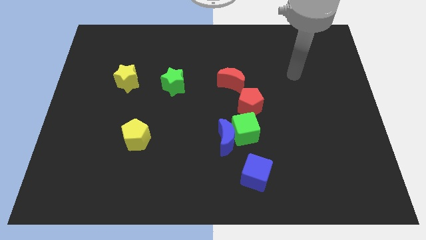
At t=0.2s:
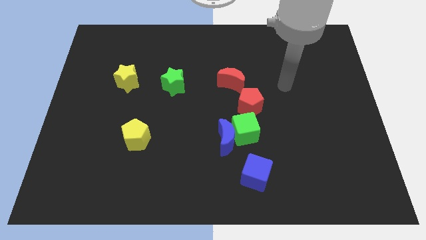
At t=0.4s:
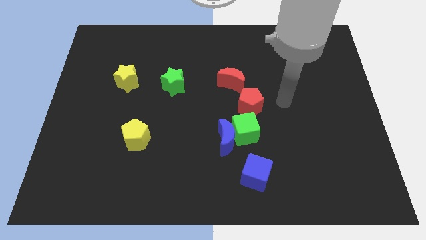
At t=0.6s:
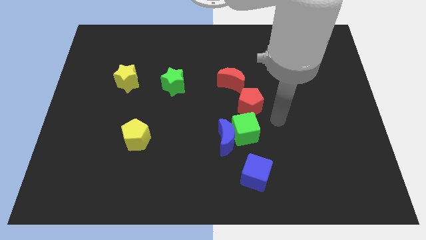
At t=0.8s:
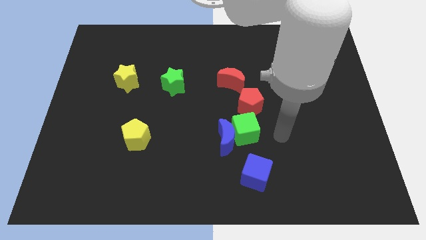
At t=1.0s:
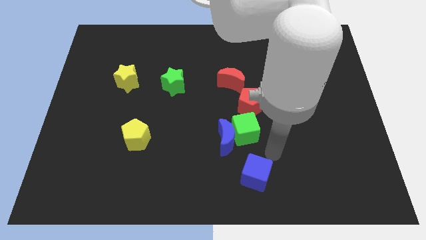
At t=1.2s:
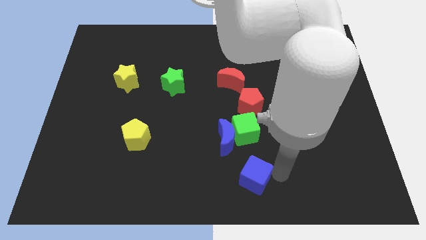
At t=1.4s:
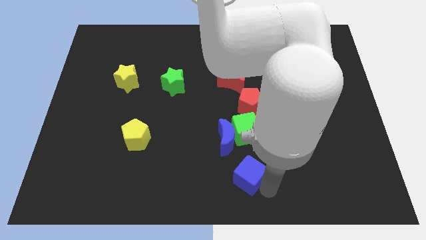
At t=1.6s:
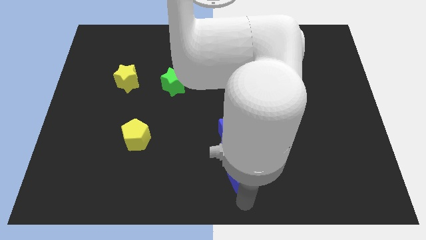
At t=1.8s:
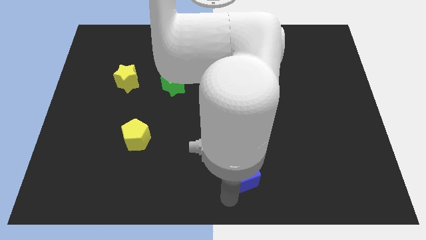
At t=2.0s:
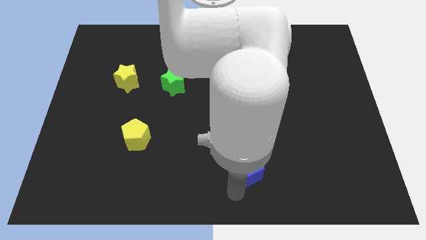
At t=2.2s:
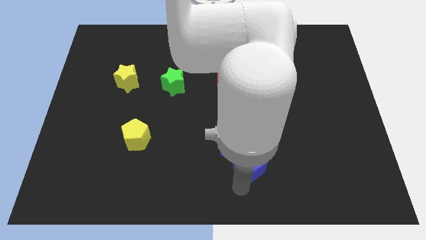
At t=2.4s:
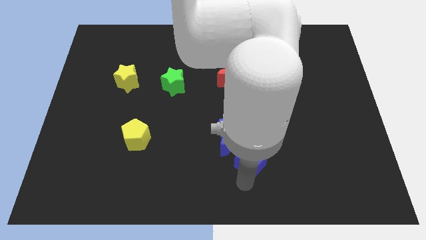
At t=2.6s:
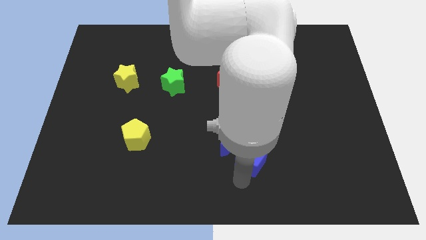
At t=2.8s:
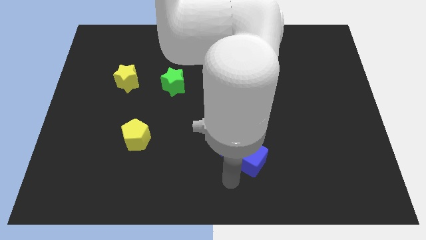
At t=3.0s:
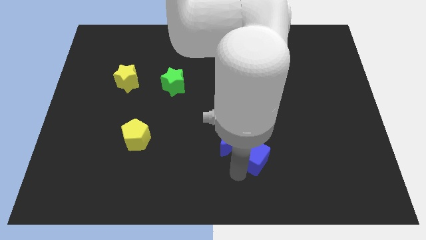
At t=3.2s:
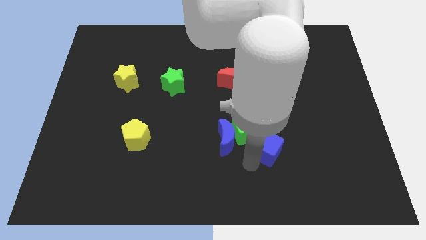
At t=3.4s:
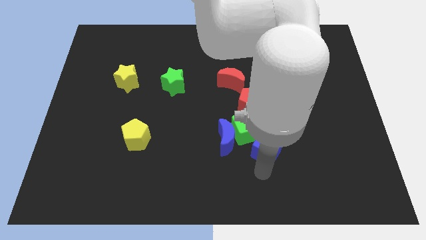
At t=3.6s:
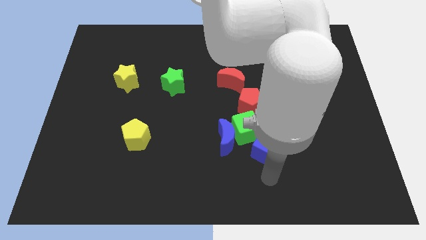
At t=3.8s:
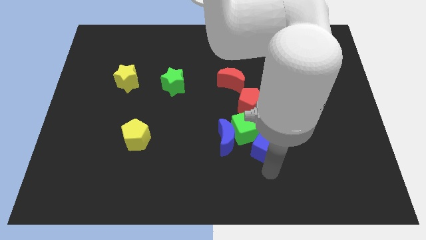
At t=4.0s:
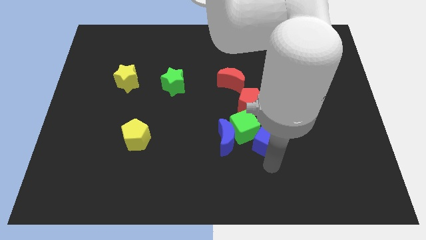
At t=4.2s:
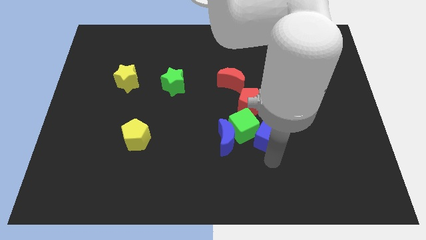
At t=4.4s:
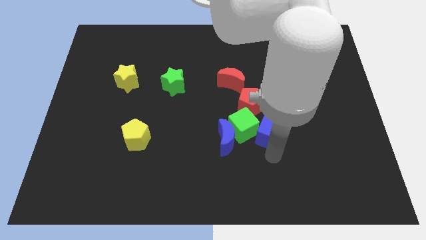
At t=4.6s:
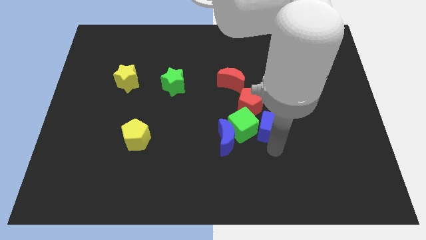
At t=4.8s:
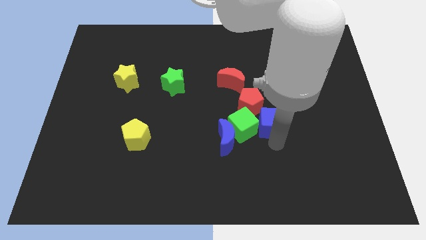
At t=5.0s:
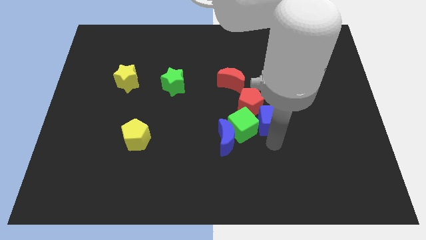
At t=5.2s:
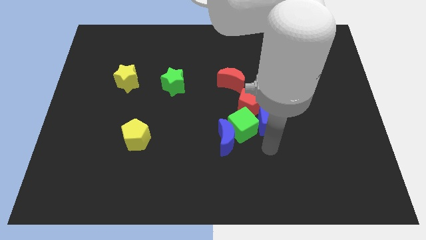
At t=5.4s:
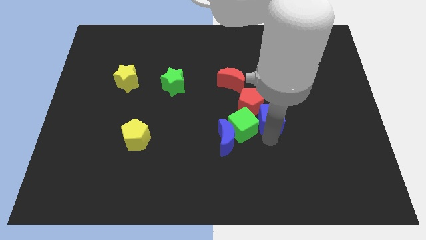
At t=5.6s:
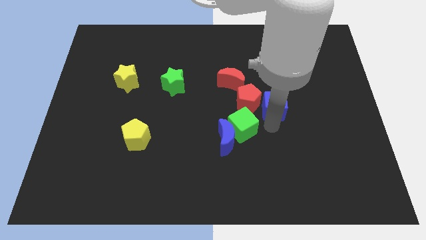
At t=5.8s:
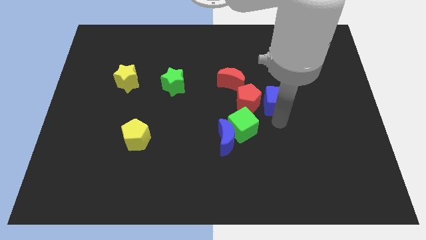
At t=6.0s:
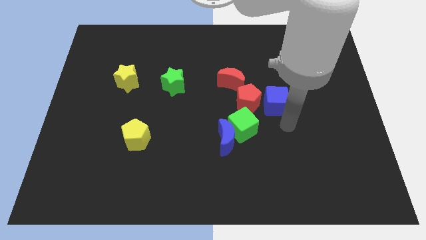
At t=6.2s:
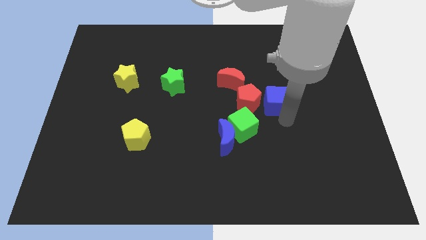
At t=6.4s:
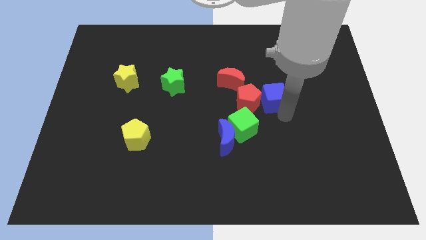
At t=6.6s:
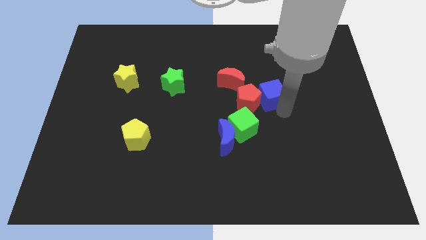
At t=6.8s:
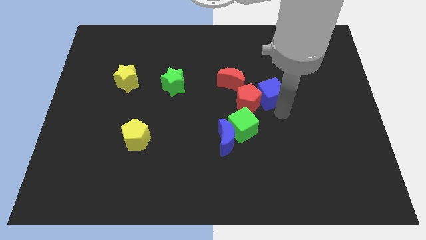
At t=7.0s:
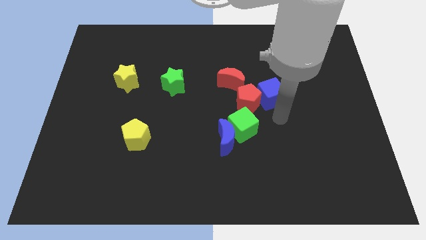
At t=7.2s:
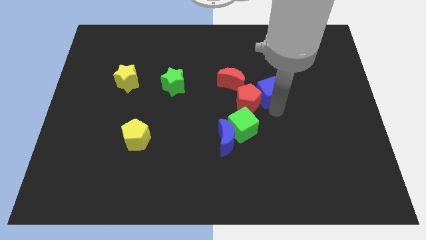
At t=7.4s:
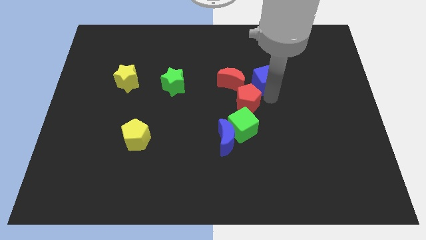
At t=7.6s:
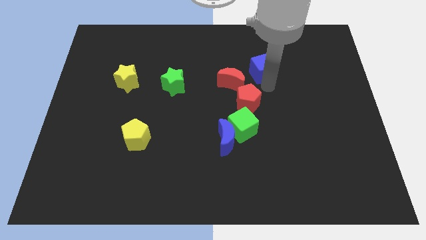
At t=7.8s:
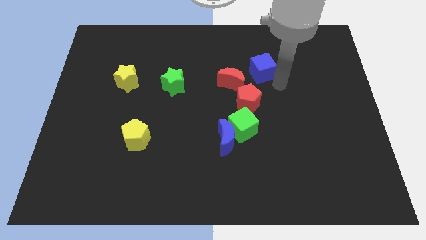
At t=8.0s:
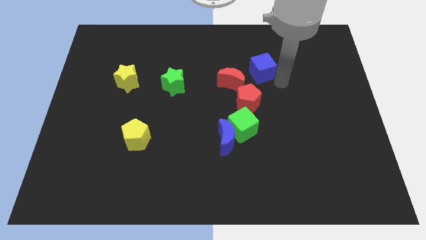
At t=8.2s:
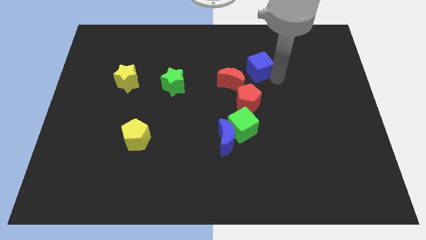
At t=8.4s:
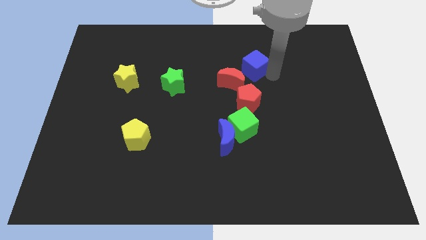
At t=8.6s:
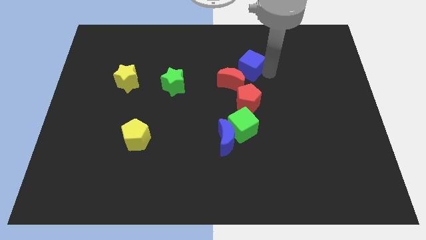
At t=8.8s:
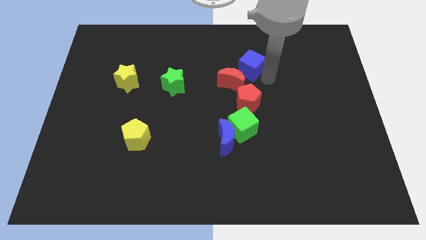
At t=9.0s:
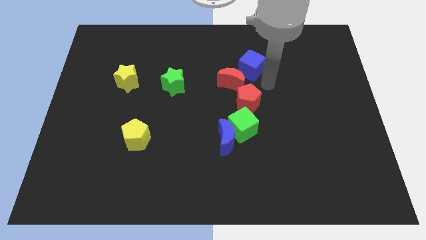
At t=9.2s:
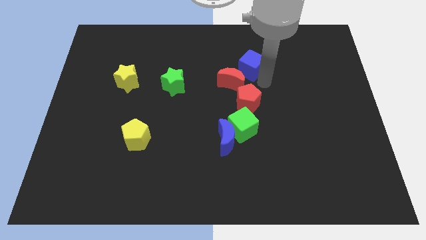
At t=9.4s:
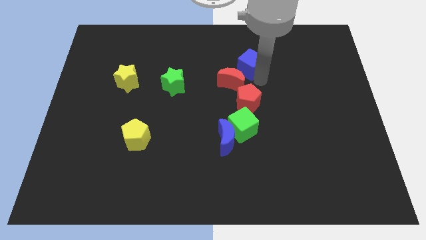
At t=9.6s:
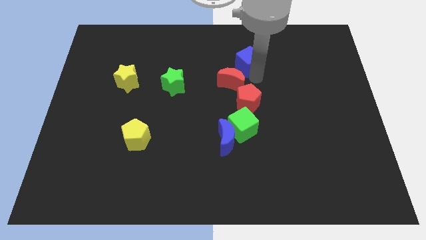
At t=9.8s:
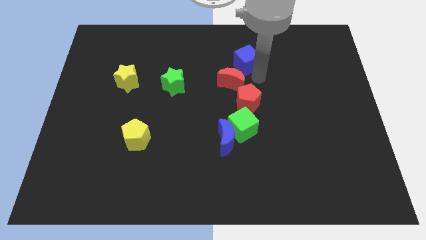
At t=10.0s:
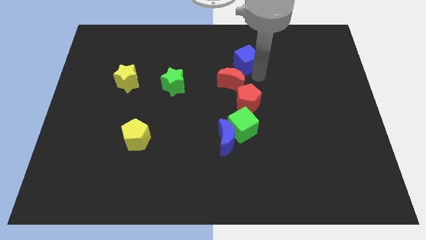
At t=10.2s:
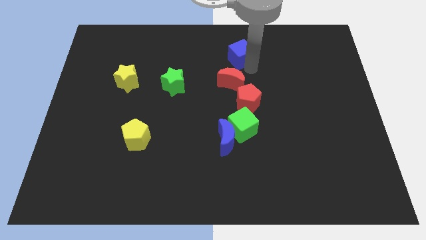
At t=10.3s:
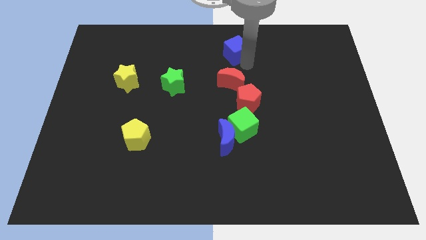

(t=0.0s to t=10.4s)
push the blue cube to the top side

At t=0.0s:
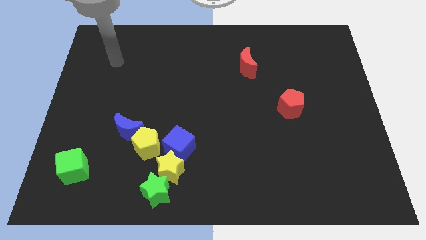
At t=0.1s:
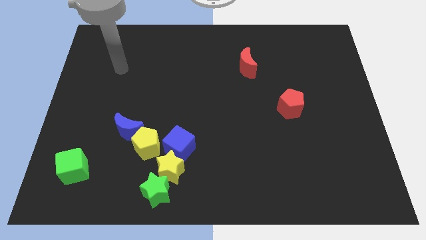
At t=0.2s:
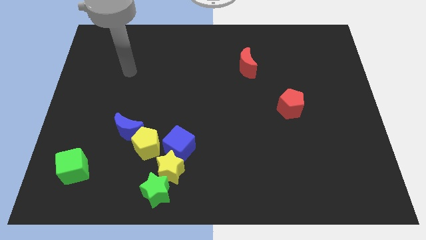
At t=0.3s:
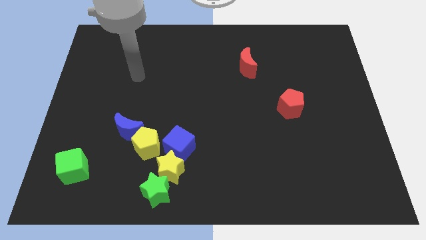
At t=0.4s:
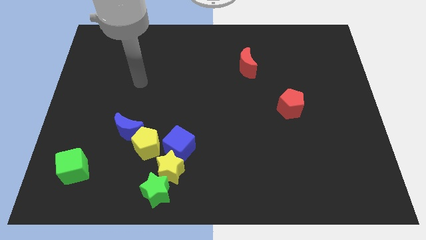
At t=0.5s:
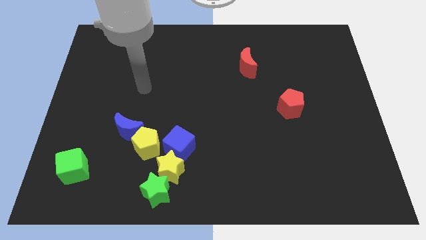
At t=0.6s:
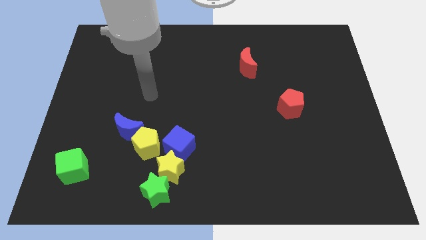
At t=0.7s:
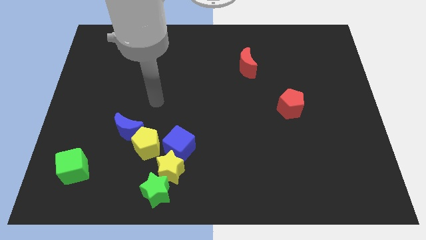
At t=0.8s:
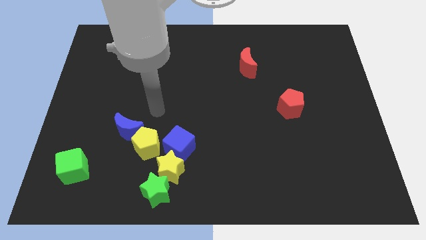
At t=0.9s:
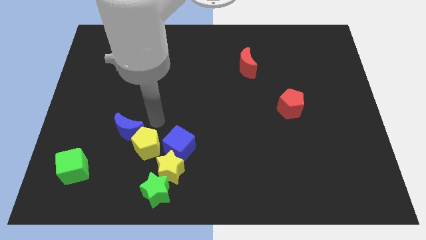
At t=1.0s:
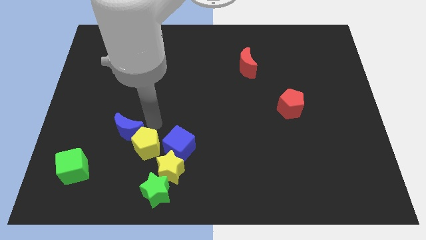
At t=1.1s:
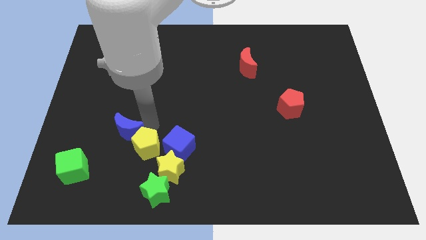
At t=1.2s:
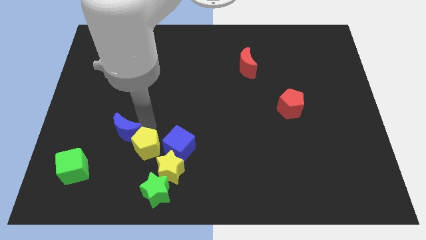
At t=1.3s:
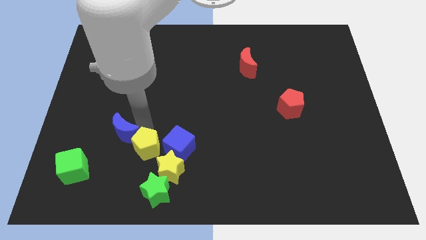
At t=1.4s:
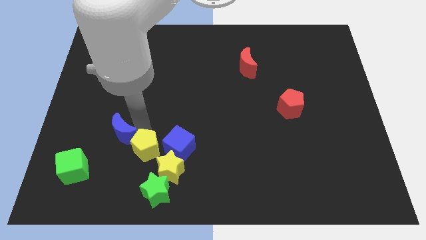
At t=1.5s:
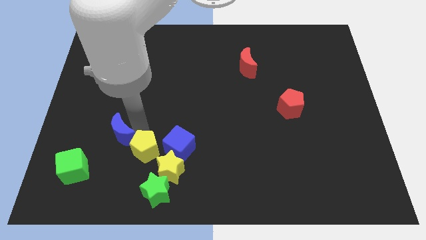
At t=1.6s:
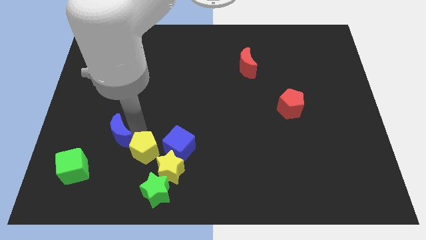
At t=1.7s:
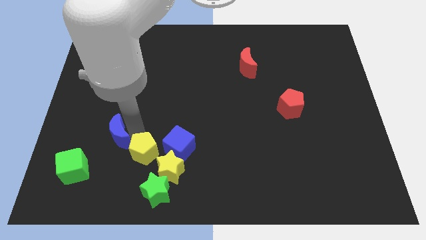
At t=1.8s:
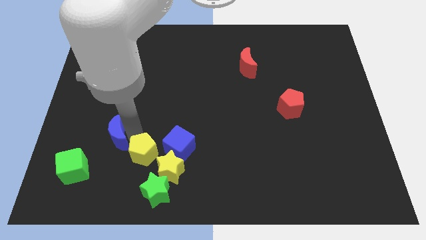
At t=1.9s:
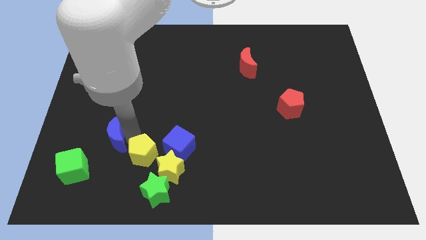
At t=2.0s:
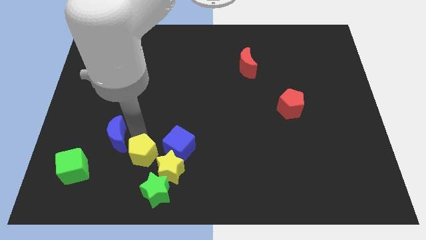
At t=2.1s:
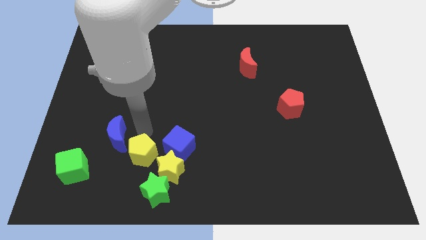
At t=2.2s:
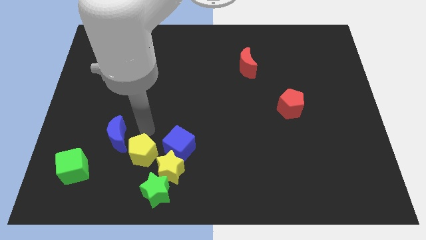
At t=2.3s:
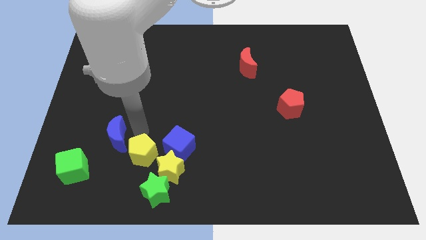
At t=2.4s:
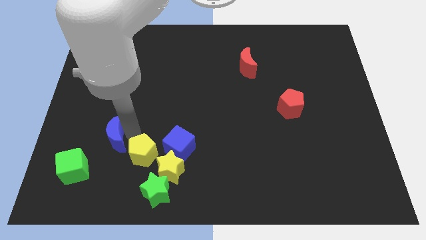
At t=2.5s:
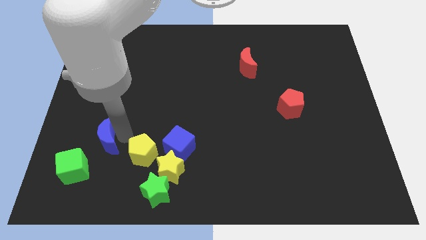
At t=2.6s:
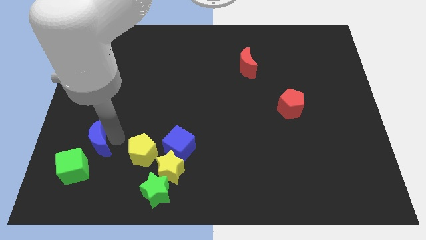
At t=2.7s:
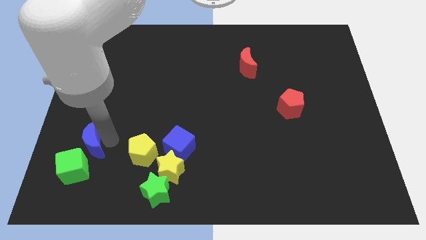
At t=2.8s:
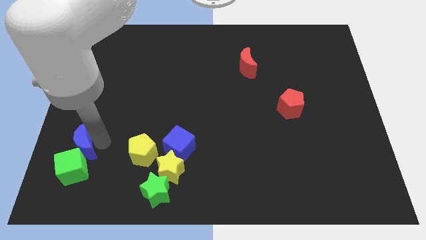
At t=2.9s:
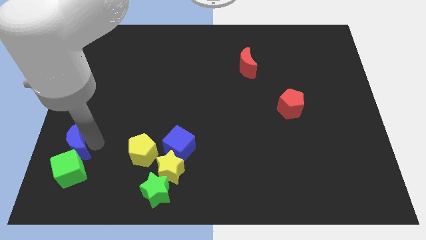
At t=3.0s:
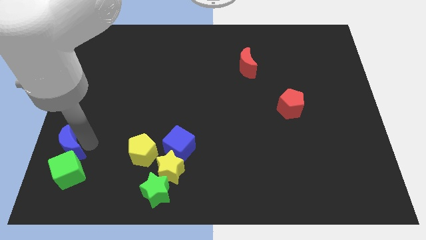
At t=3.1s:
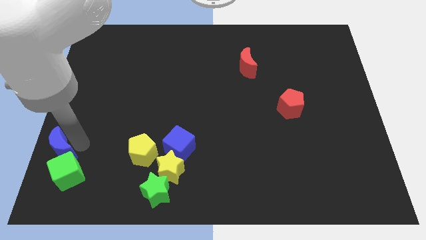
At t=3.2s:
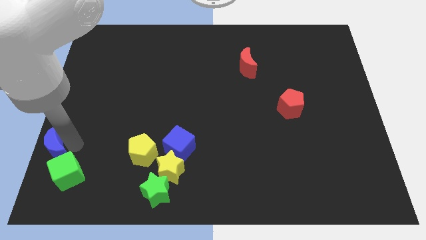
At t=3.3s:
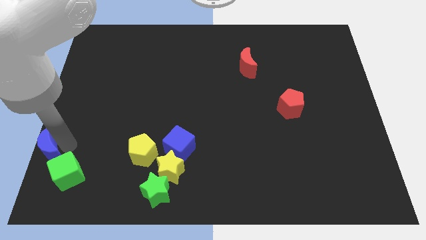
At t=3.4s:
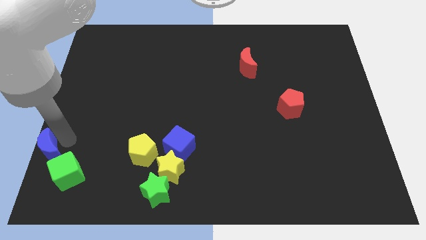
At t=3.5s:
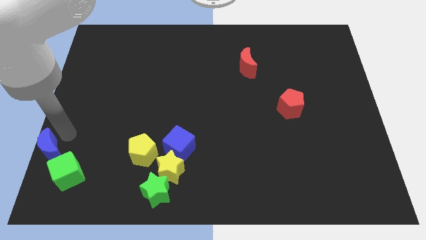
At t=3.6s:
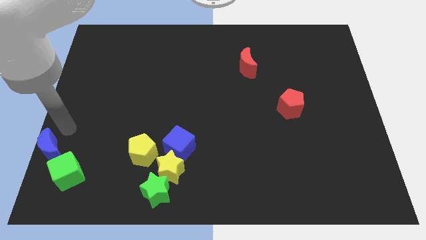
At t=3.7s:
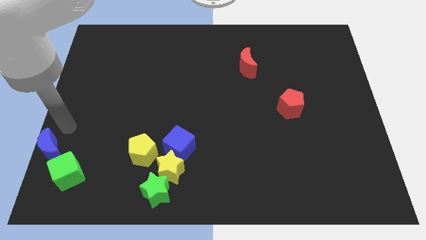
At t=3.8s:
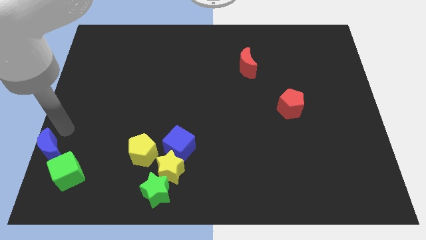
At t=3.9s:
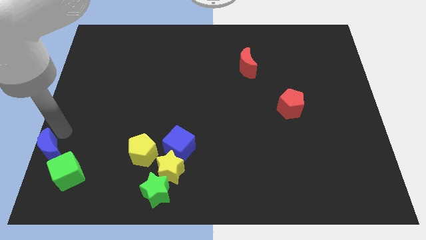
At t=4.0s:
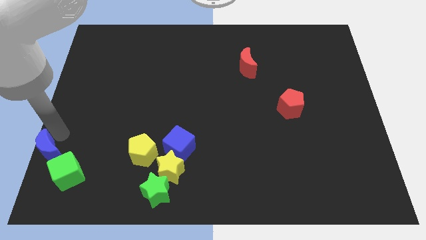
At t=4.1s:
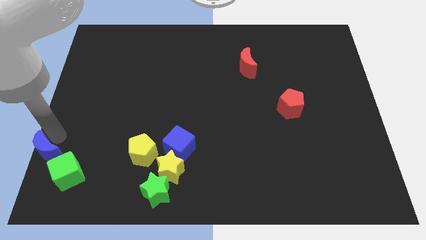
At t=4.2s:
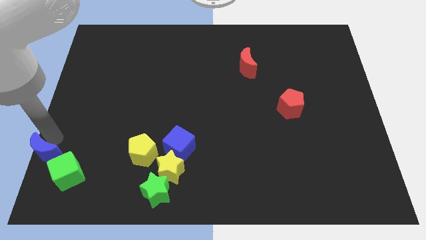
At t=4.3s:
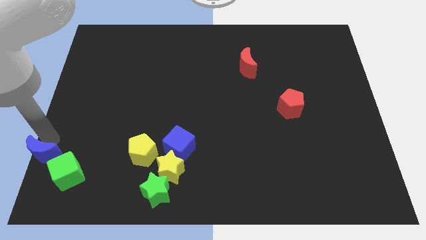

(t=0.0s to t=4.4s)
slide the blue moon to the lower left corner
